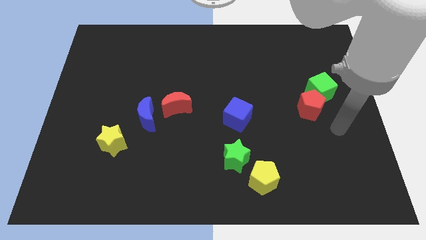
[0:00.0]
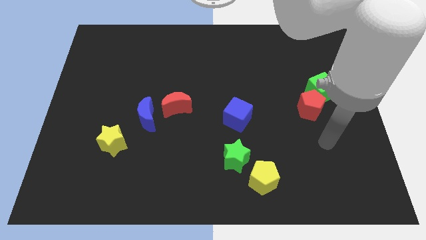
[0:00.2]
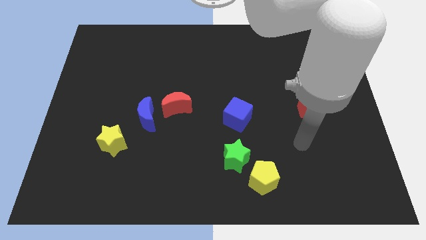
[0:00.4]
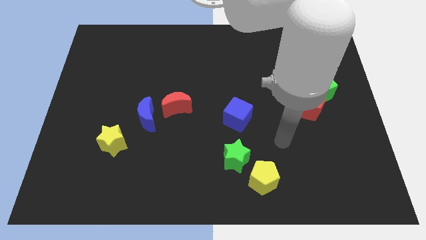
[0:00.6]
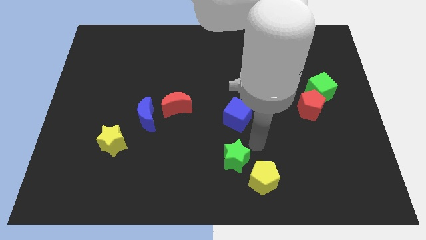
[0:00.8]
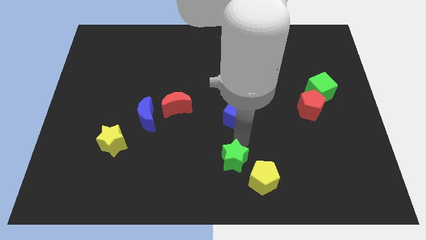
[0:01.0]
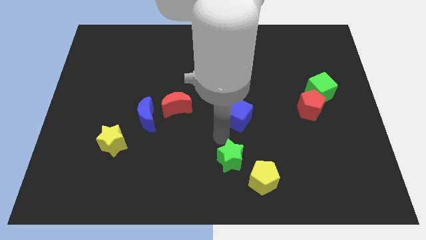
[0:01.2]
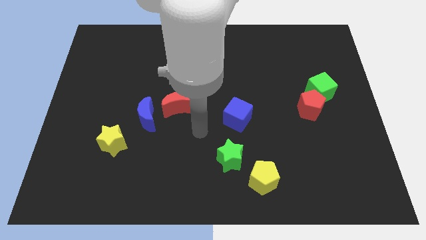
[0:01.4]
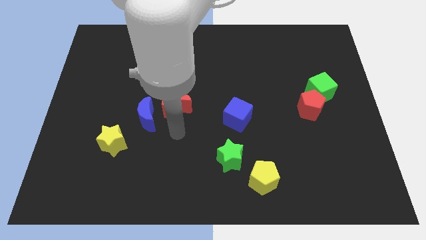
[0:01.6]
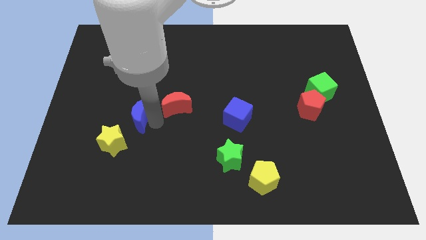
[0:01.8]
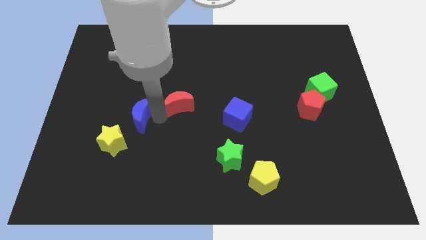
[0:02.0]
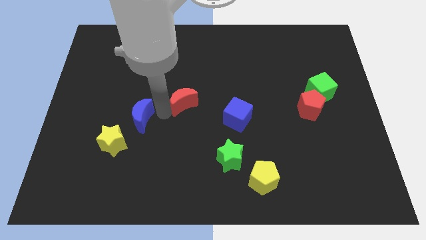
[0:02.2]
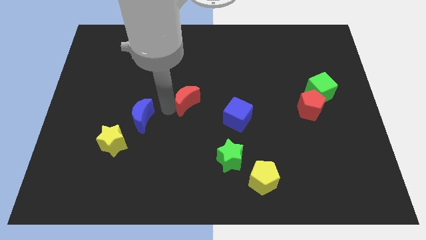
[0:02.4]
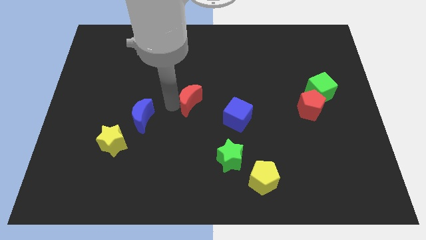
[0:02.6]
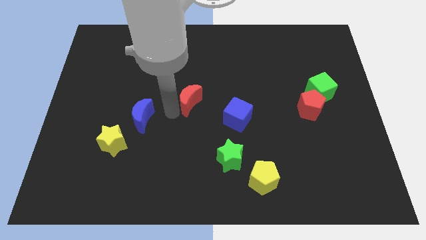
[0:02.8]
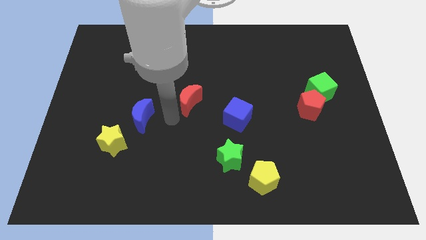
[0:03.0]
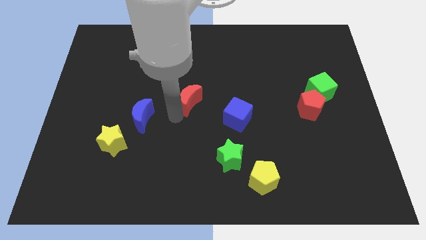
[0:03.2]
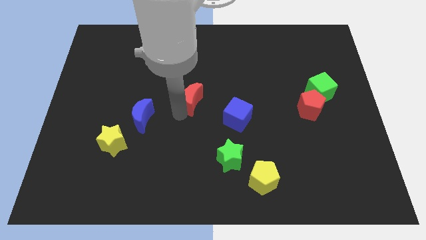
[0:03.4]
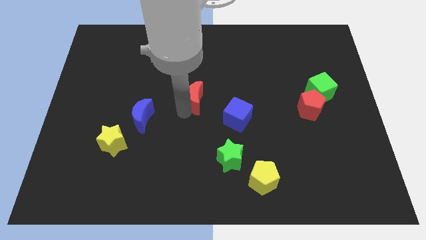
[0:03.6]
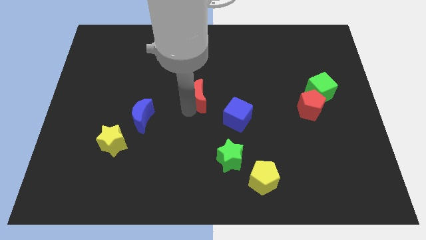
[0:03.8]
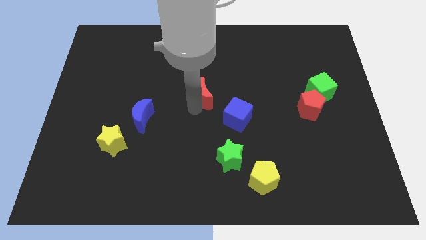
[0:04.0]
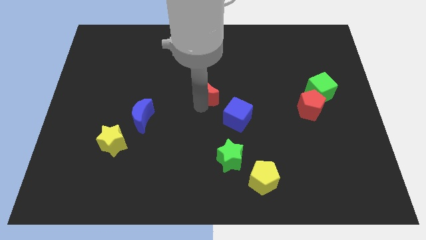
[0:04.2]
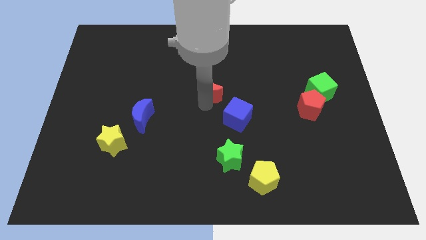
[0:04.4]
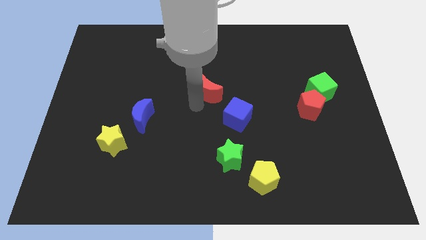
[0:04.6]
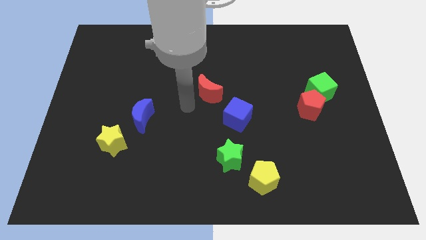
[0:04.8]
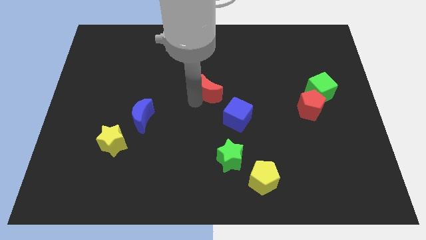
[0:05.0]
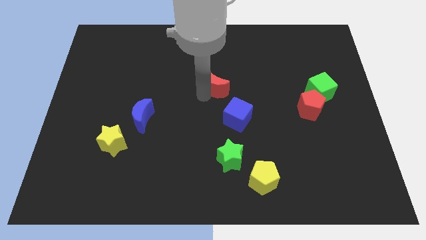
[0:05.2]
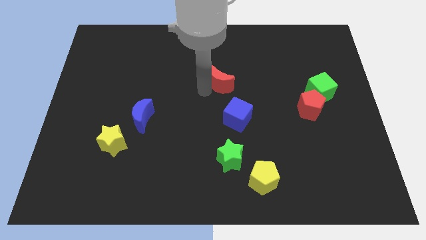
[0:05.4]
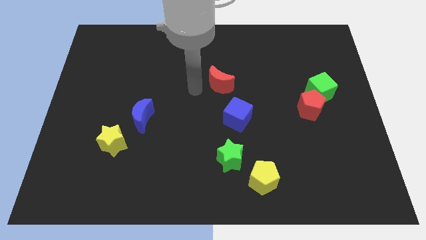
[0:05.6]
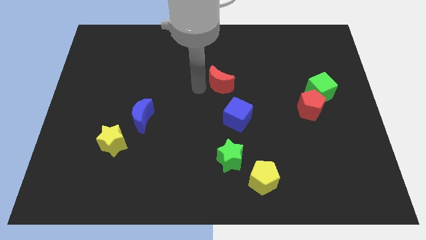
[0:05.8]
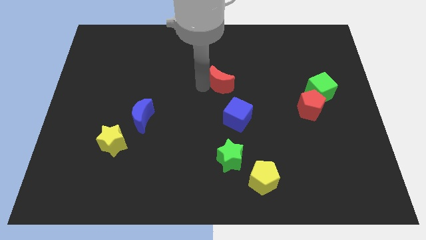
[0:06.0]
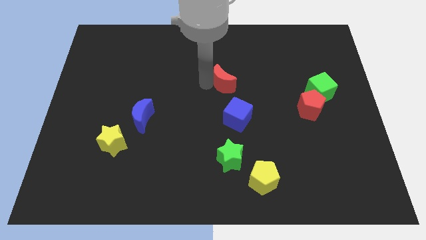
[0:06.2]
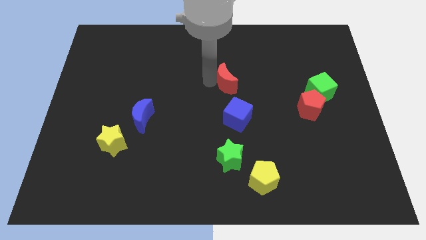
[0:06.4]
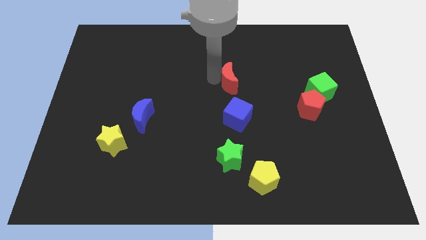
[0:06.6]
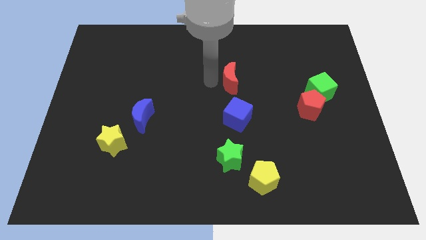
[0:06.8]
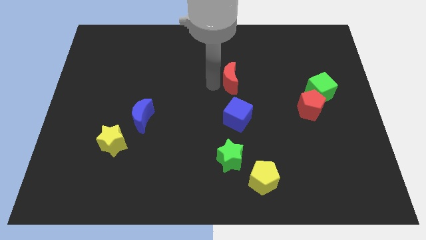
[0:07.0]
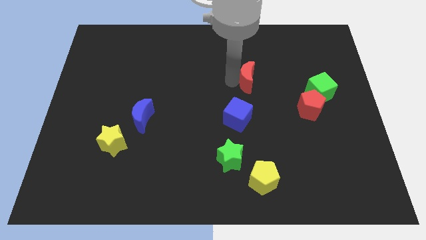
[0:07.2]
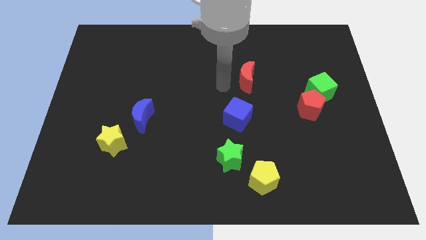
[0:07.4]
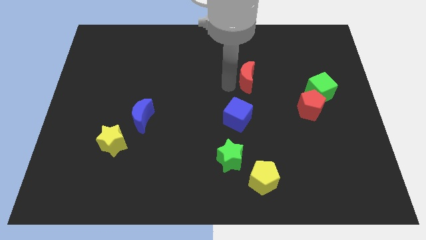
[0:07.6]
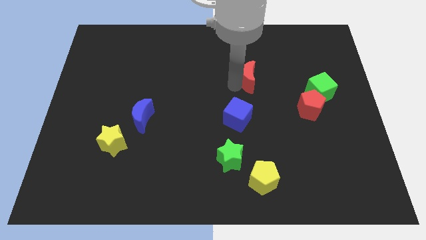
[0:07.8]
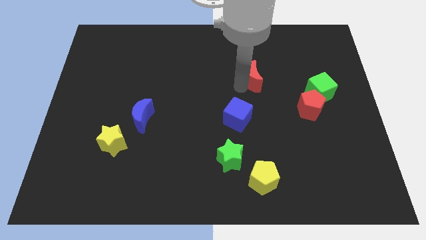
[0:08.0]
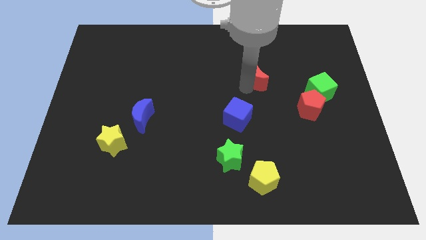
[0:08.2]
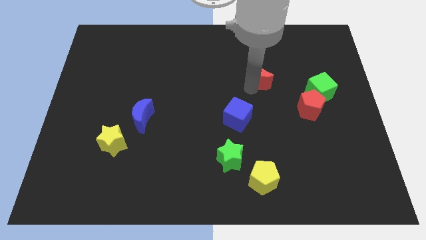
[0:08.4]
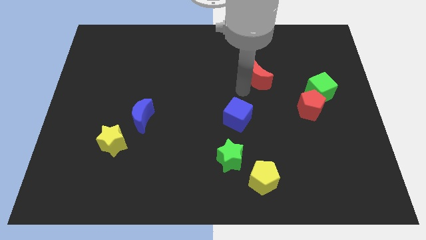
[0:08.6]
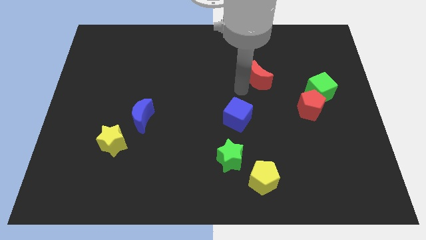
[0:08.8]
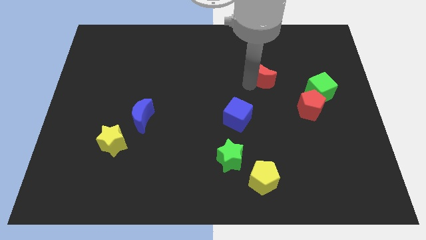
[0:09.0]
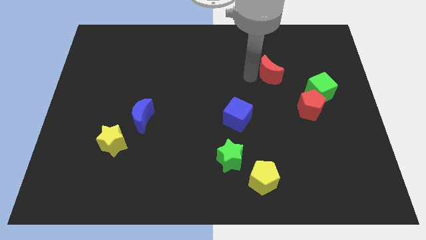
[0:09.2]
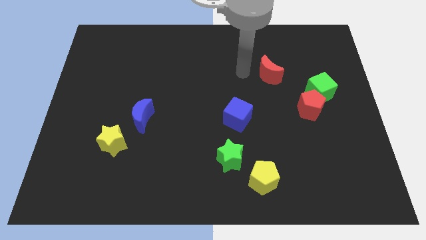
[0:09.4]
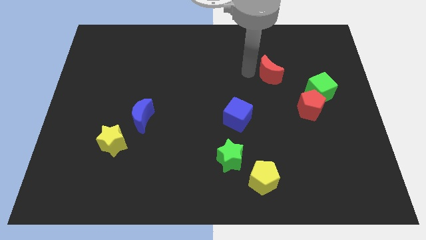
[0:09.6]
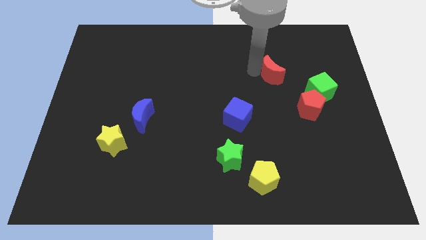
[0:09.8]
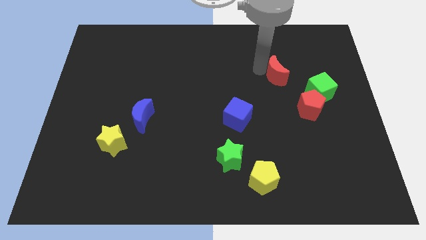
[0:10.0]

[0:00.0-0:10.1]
slide the red moon to the top left of the green cube

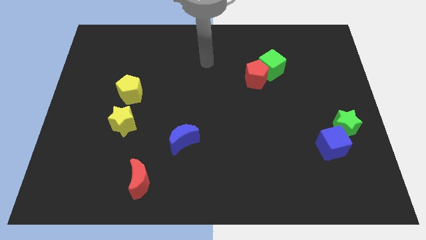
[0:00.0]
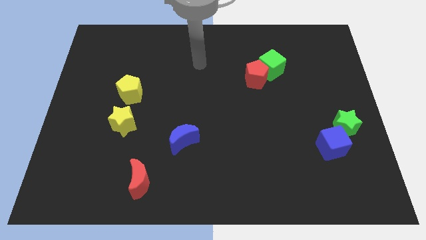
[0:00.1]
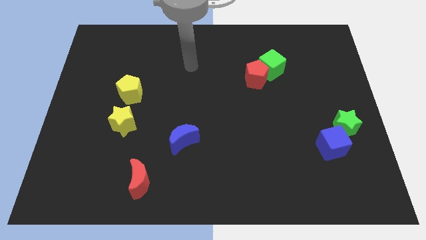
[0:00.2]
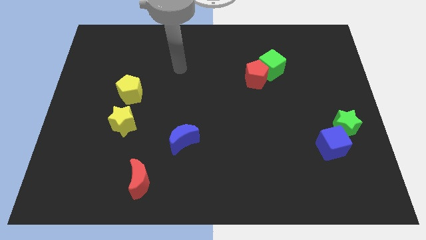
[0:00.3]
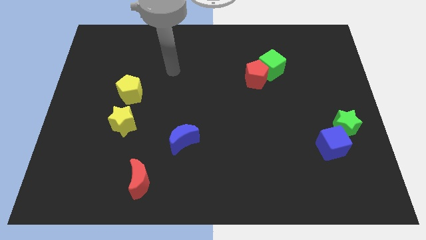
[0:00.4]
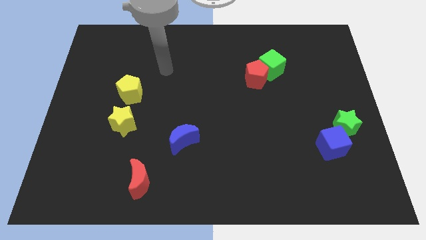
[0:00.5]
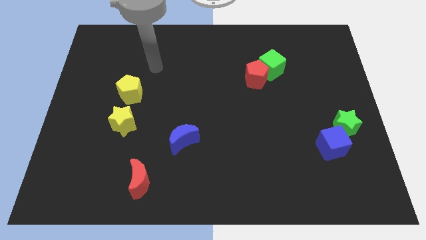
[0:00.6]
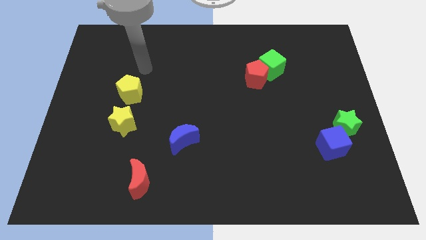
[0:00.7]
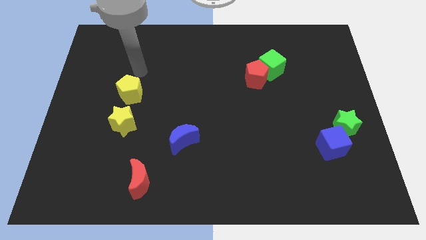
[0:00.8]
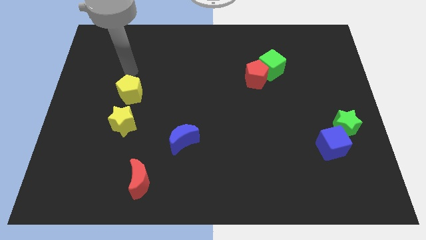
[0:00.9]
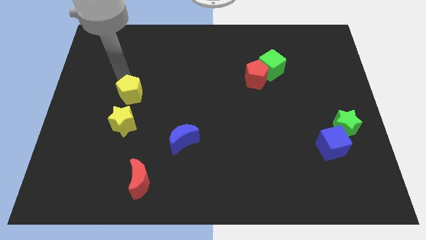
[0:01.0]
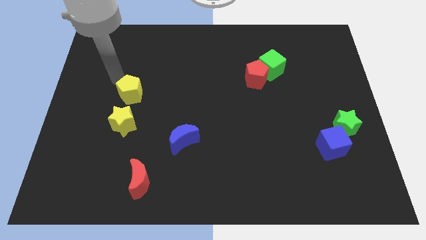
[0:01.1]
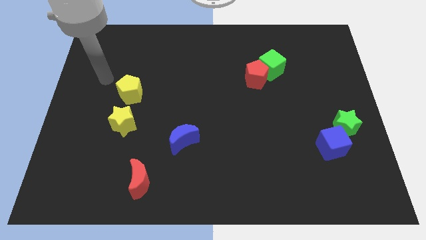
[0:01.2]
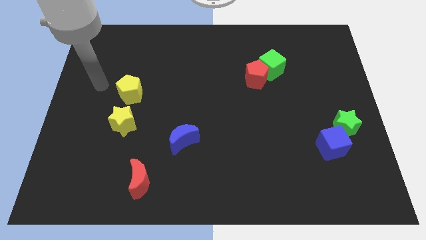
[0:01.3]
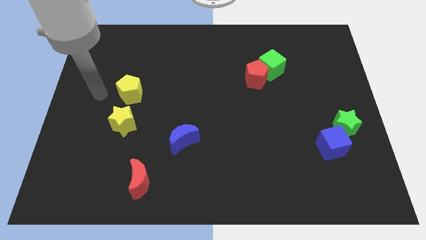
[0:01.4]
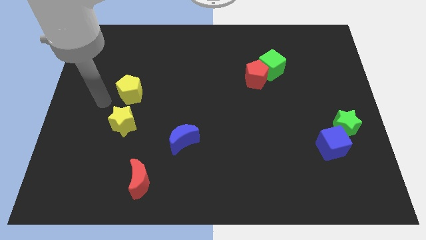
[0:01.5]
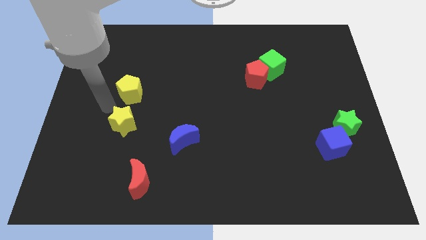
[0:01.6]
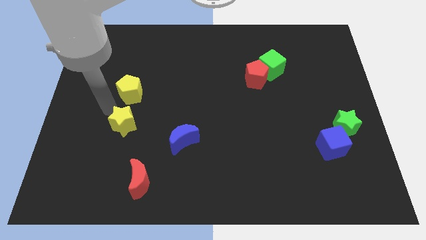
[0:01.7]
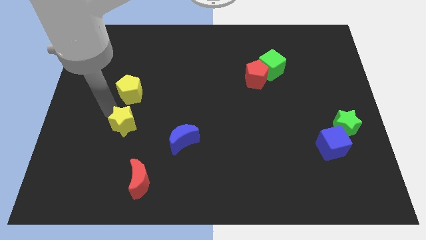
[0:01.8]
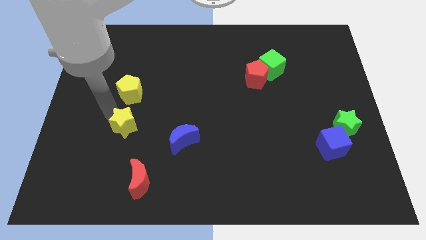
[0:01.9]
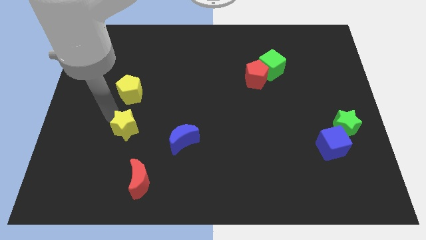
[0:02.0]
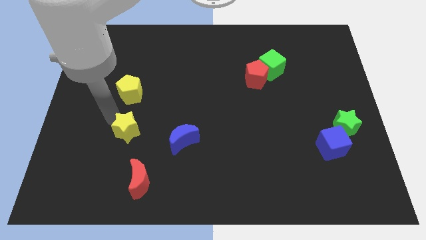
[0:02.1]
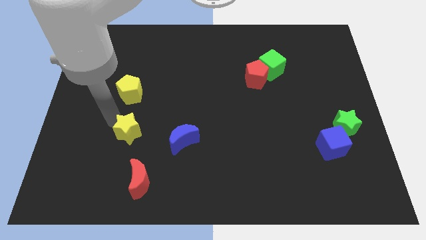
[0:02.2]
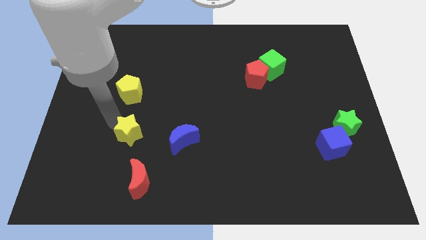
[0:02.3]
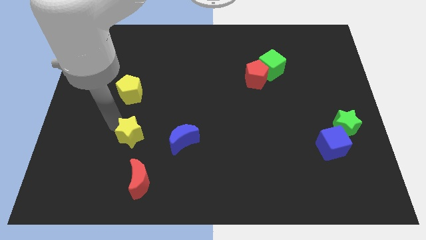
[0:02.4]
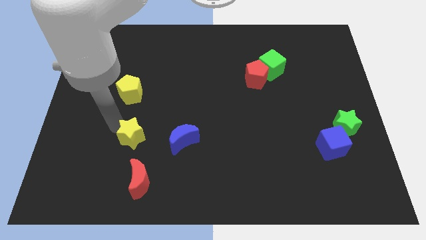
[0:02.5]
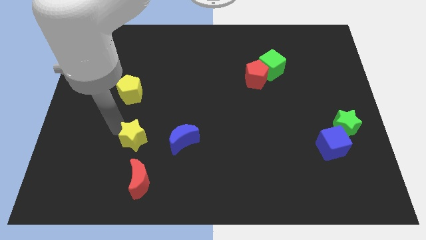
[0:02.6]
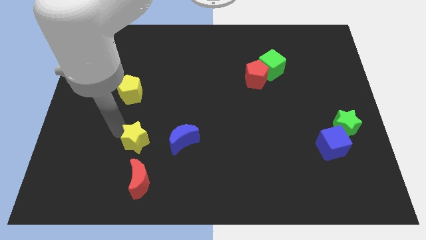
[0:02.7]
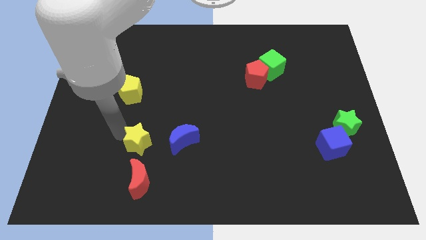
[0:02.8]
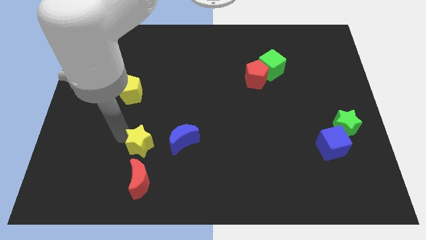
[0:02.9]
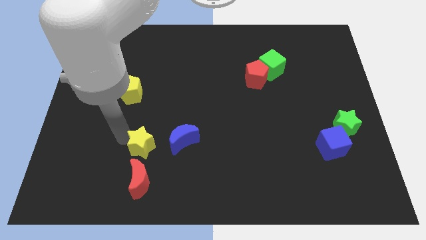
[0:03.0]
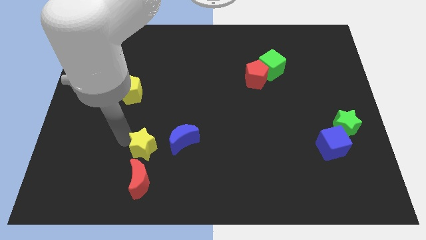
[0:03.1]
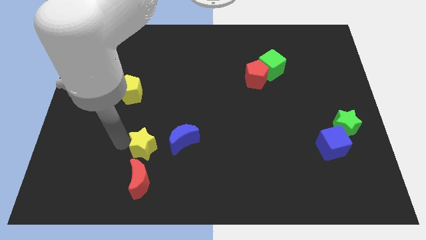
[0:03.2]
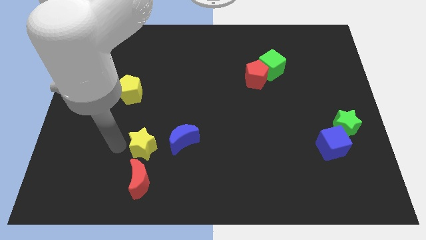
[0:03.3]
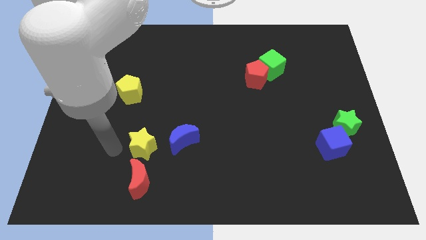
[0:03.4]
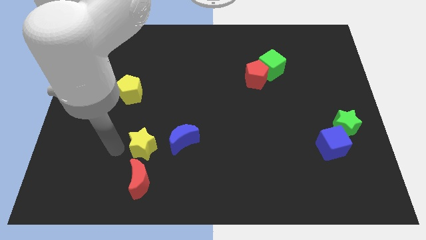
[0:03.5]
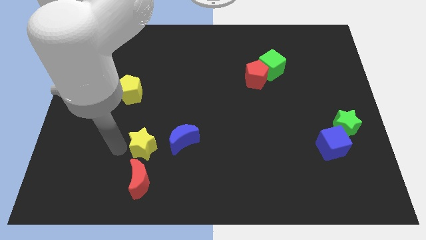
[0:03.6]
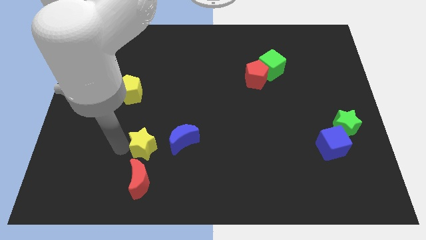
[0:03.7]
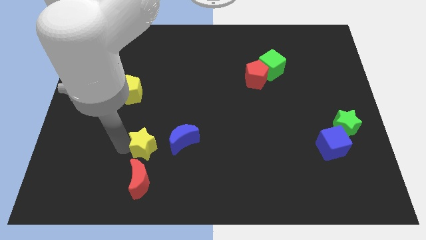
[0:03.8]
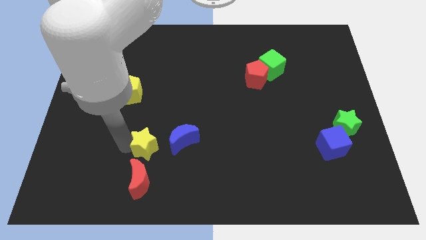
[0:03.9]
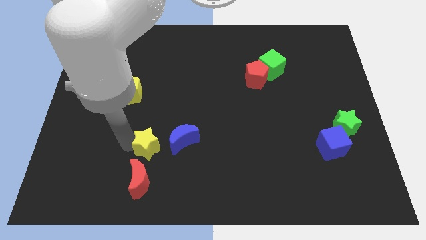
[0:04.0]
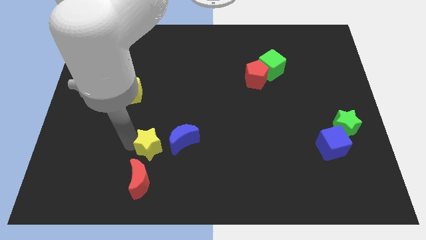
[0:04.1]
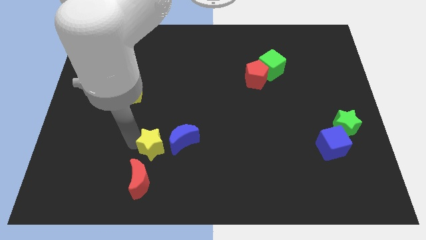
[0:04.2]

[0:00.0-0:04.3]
put the yellow star to the top right side of the red moon
